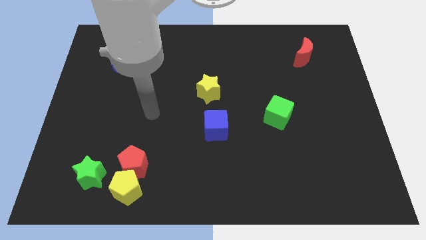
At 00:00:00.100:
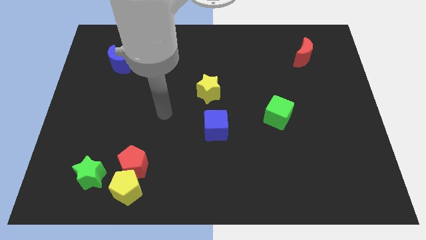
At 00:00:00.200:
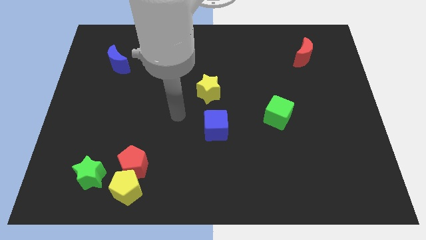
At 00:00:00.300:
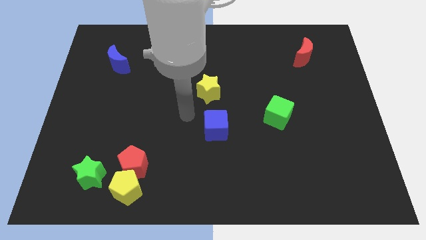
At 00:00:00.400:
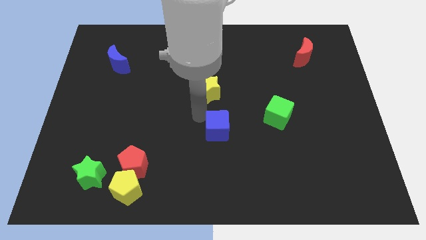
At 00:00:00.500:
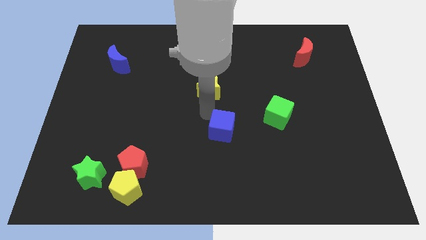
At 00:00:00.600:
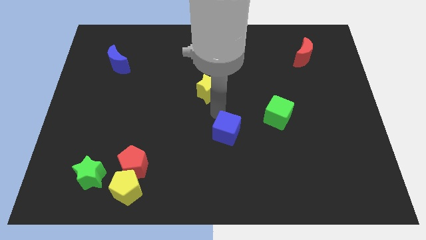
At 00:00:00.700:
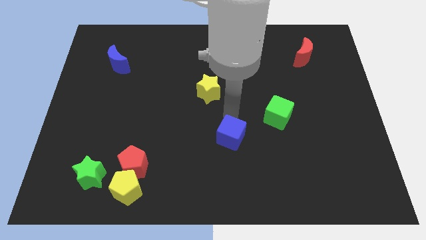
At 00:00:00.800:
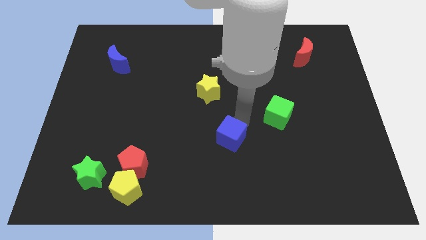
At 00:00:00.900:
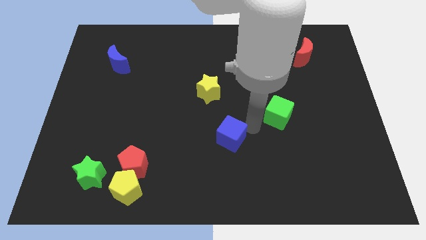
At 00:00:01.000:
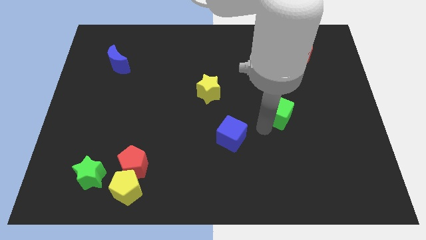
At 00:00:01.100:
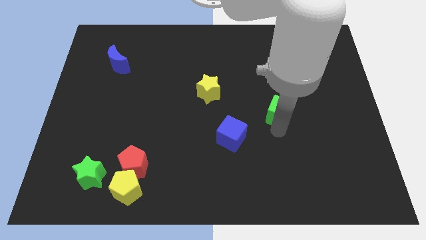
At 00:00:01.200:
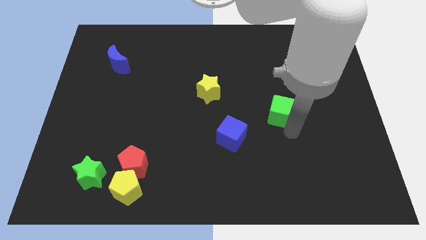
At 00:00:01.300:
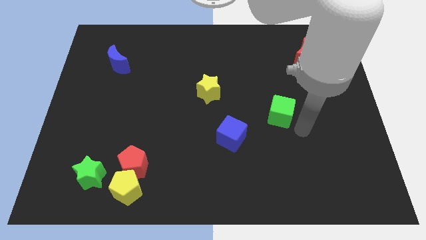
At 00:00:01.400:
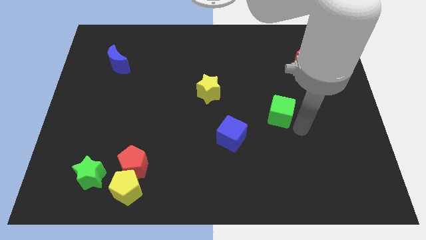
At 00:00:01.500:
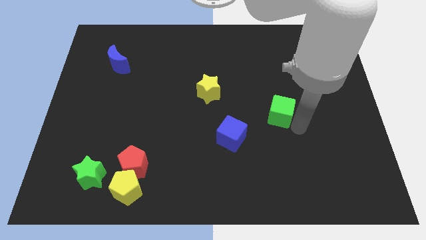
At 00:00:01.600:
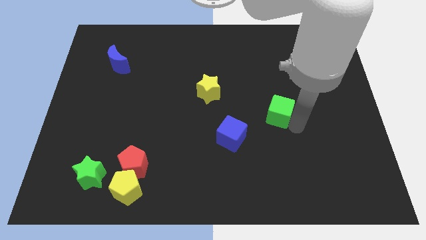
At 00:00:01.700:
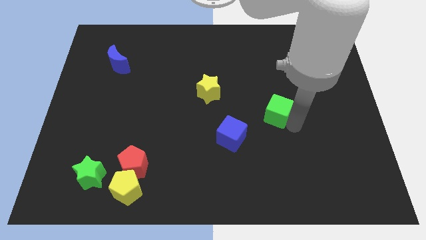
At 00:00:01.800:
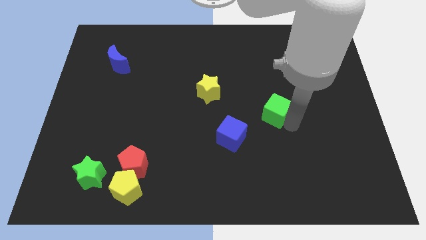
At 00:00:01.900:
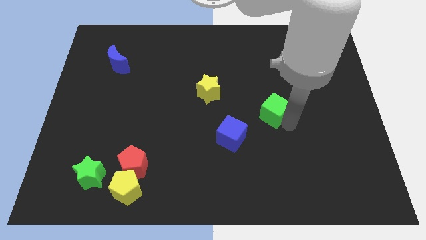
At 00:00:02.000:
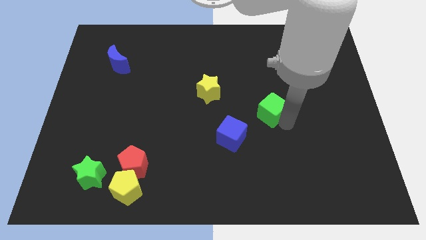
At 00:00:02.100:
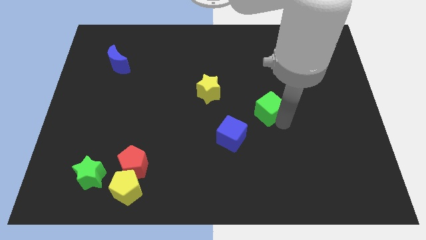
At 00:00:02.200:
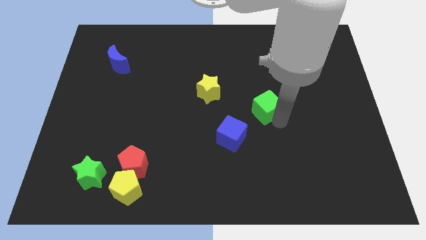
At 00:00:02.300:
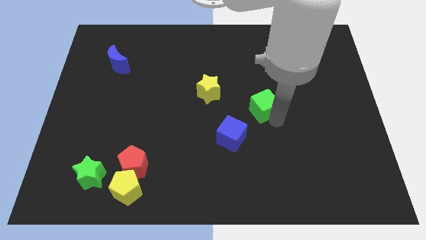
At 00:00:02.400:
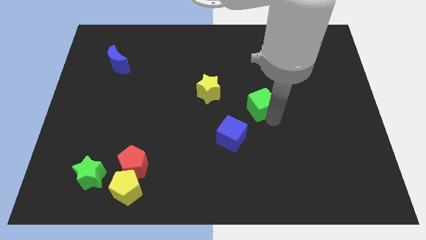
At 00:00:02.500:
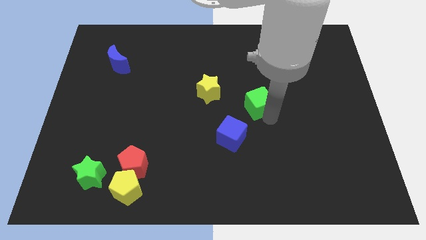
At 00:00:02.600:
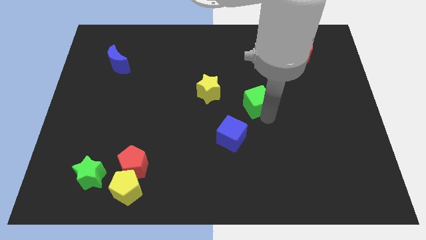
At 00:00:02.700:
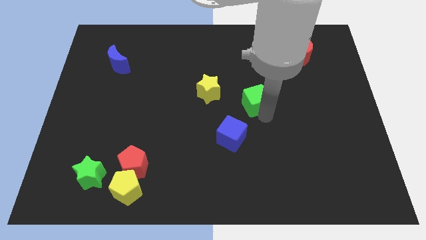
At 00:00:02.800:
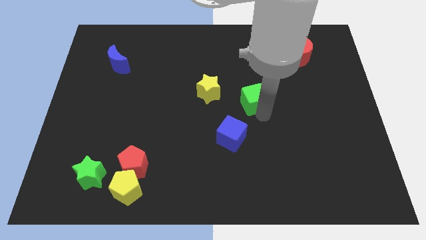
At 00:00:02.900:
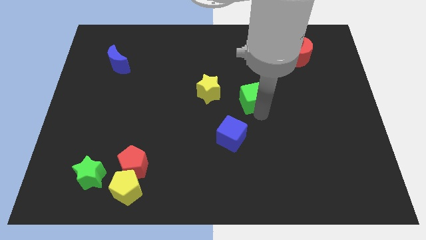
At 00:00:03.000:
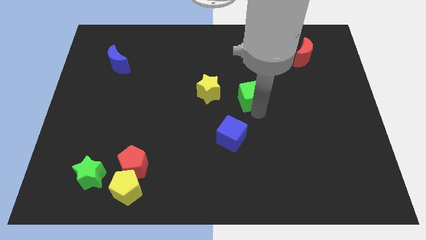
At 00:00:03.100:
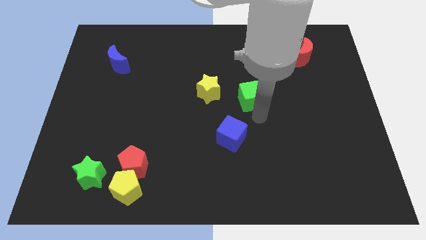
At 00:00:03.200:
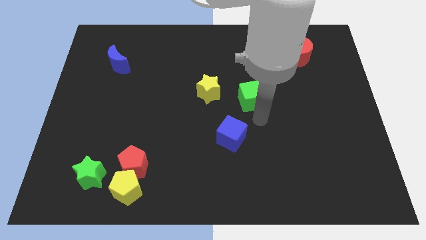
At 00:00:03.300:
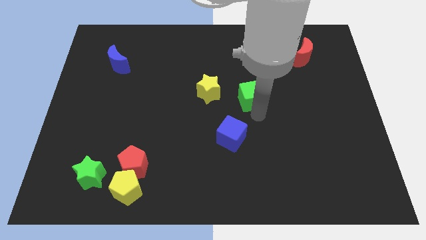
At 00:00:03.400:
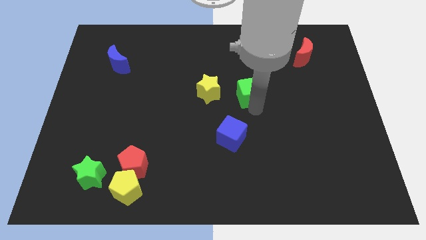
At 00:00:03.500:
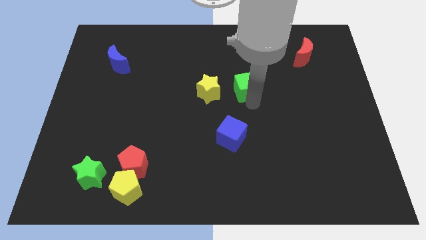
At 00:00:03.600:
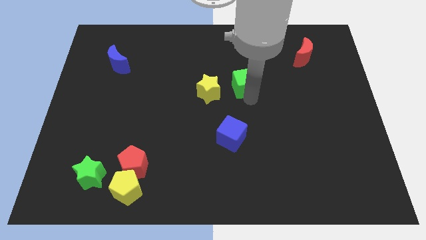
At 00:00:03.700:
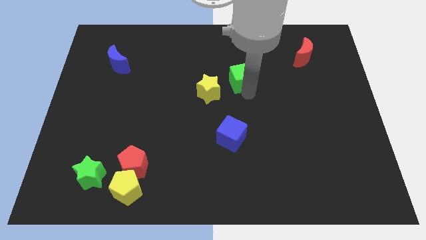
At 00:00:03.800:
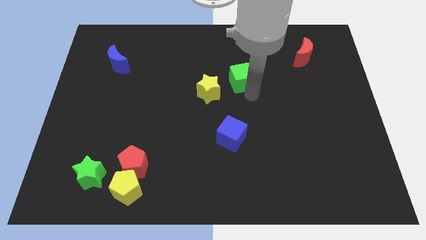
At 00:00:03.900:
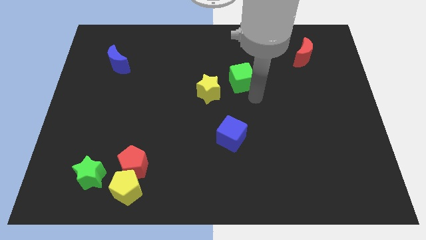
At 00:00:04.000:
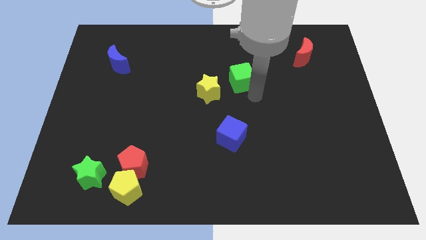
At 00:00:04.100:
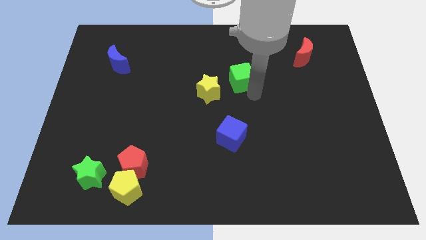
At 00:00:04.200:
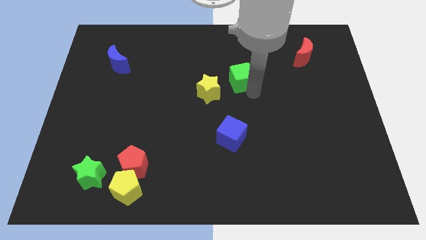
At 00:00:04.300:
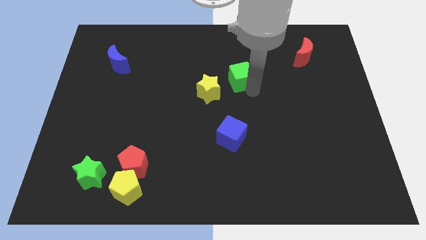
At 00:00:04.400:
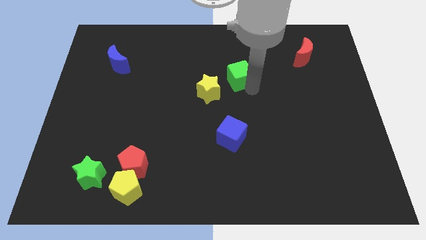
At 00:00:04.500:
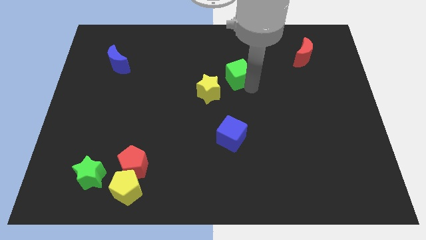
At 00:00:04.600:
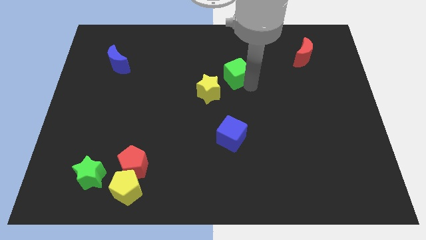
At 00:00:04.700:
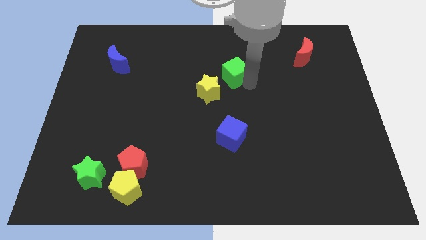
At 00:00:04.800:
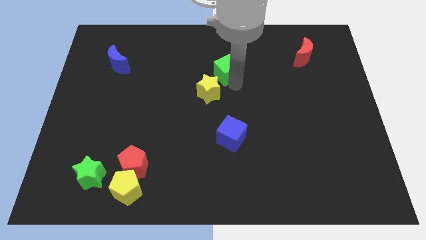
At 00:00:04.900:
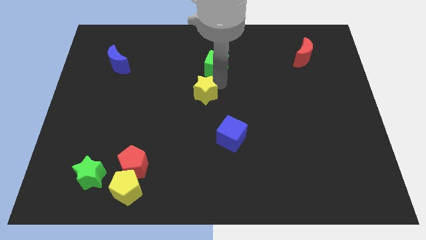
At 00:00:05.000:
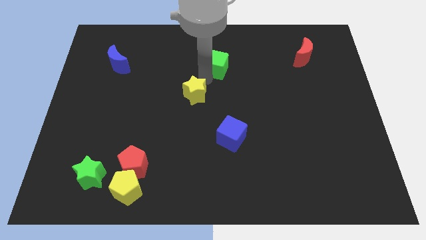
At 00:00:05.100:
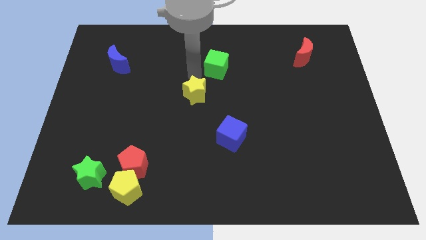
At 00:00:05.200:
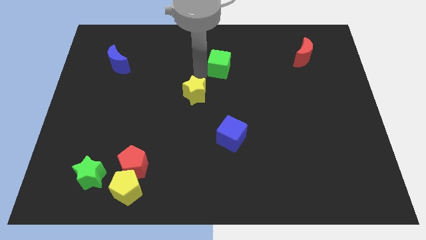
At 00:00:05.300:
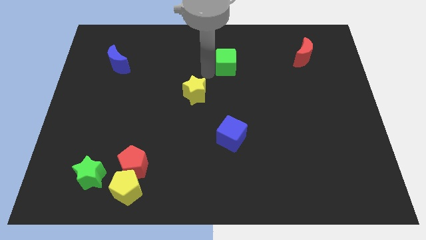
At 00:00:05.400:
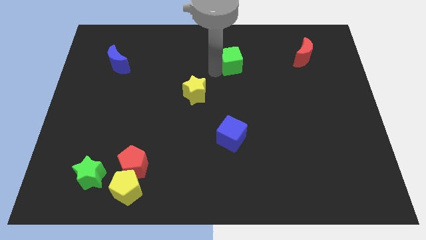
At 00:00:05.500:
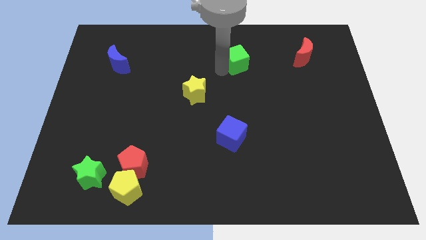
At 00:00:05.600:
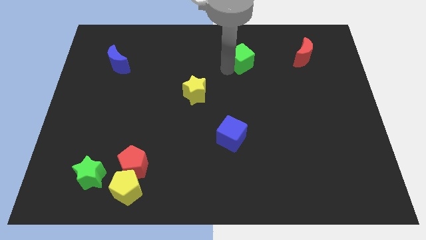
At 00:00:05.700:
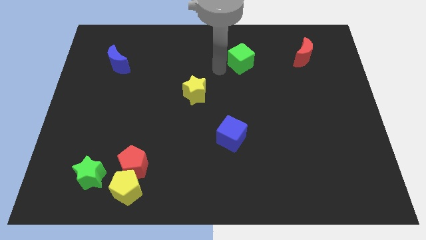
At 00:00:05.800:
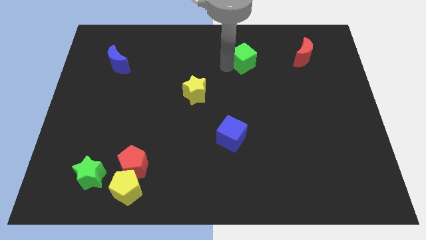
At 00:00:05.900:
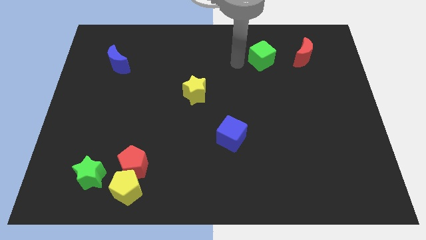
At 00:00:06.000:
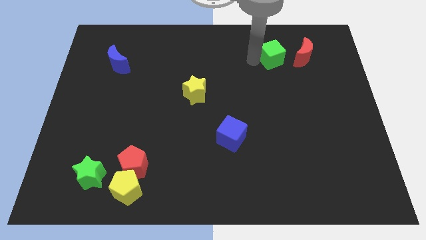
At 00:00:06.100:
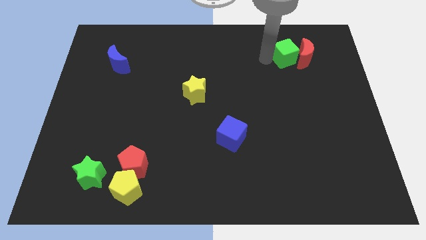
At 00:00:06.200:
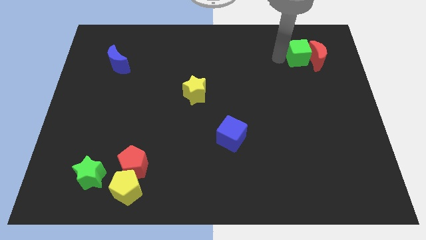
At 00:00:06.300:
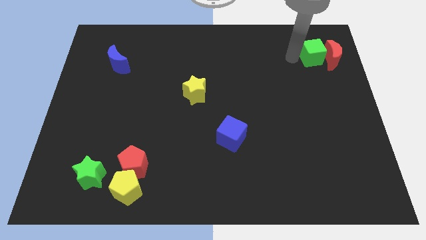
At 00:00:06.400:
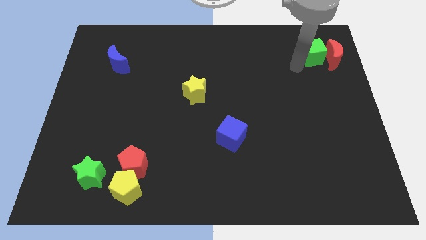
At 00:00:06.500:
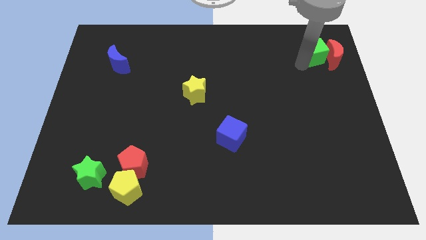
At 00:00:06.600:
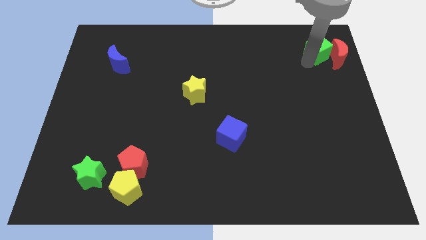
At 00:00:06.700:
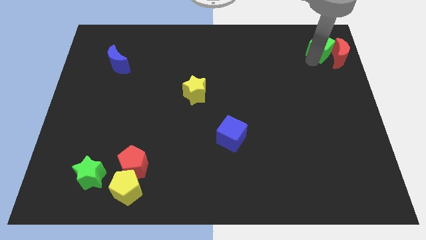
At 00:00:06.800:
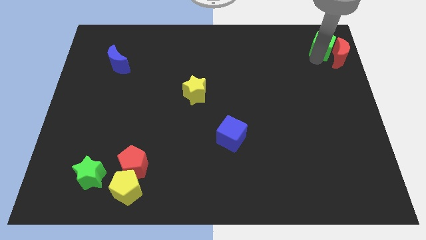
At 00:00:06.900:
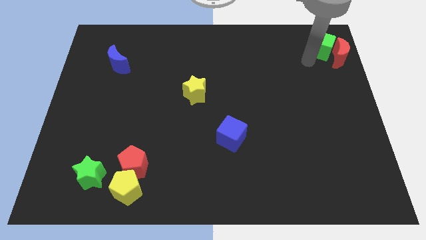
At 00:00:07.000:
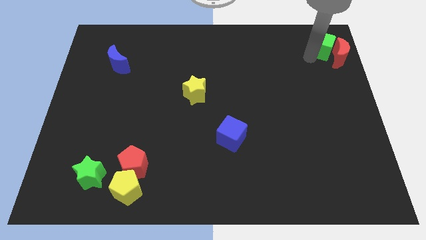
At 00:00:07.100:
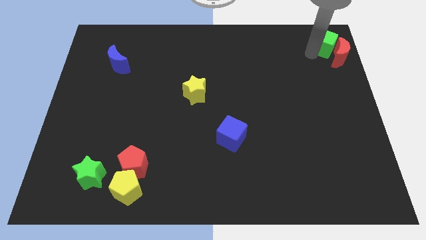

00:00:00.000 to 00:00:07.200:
push the green cube to the top right of the board

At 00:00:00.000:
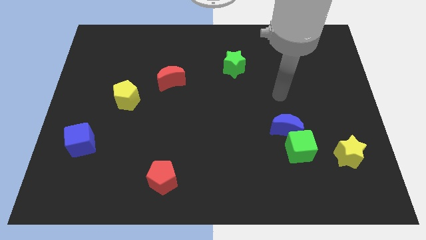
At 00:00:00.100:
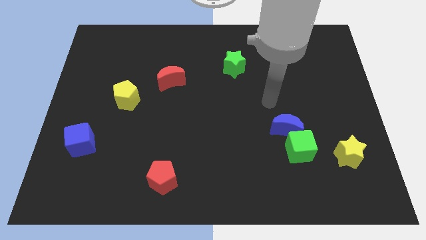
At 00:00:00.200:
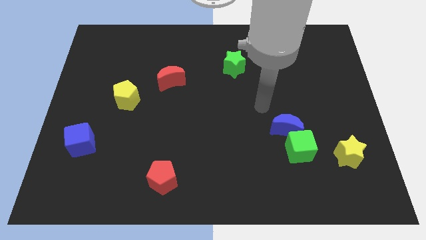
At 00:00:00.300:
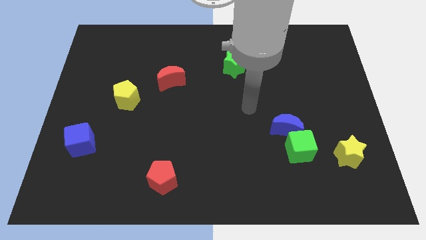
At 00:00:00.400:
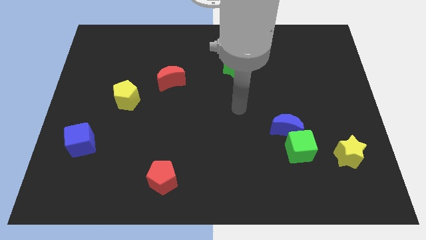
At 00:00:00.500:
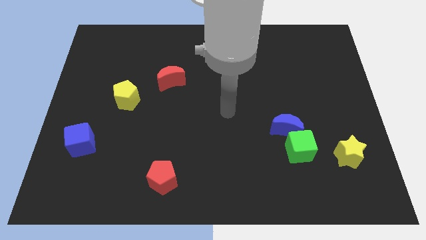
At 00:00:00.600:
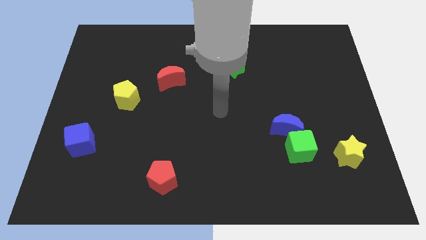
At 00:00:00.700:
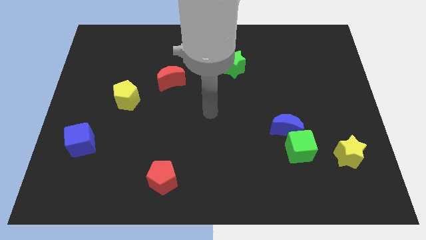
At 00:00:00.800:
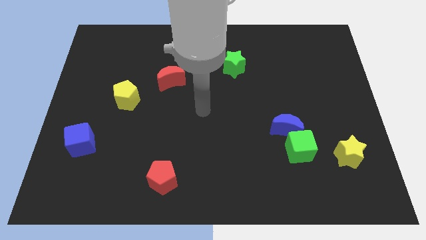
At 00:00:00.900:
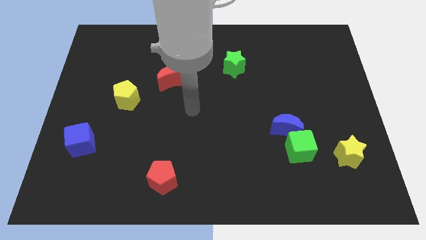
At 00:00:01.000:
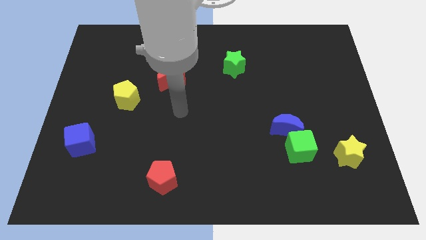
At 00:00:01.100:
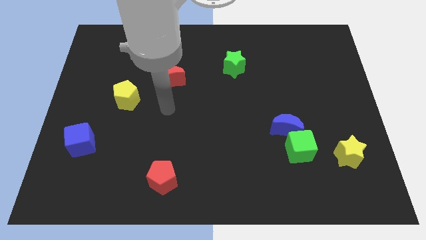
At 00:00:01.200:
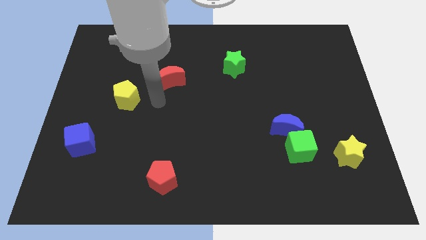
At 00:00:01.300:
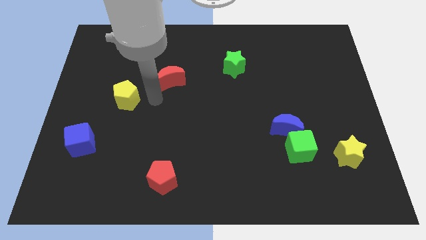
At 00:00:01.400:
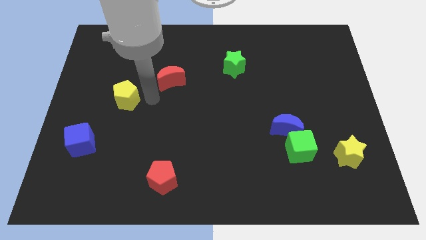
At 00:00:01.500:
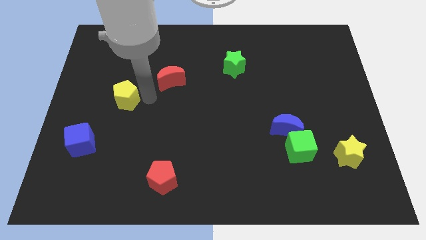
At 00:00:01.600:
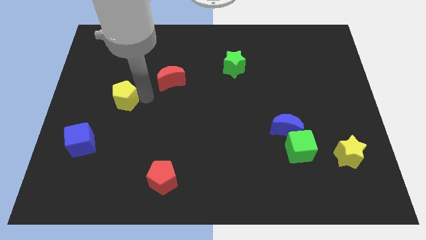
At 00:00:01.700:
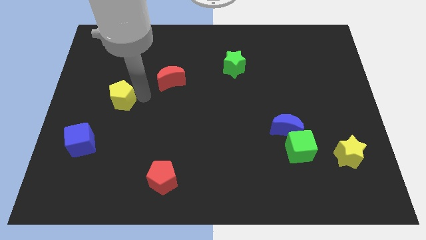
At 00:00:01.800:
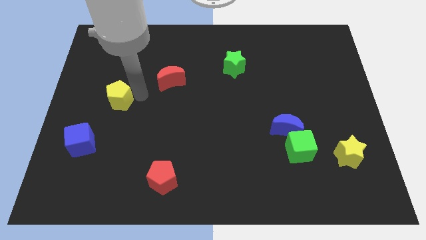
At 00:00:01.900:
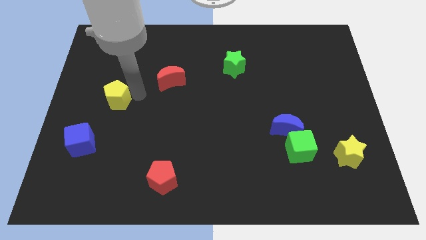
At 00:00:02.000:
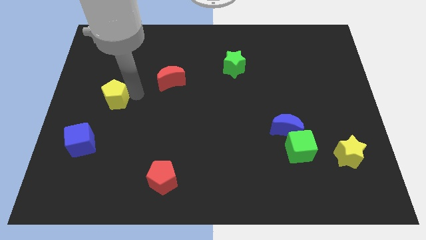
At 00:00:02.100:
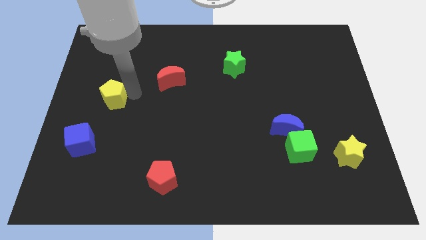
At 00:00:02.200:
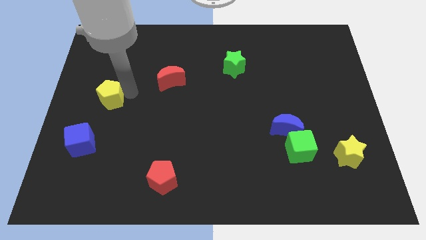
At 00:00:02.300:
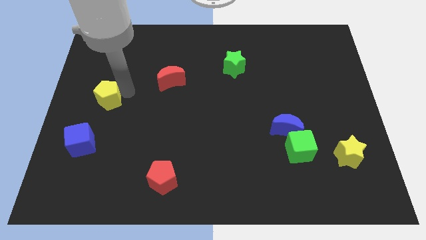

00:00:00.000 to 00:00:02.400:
slide the yellow pentagon to the center left
